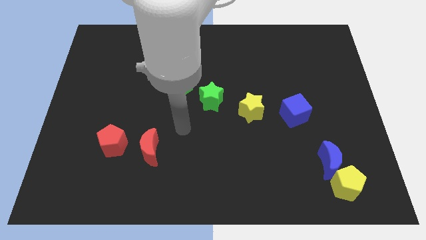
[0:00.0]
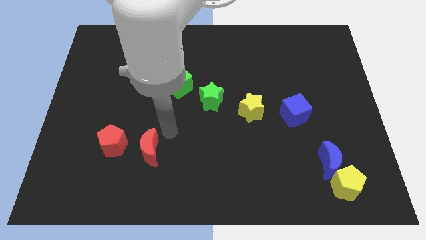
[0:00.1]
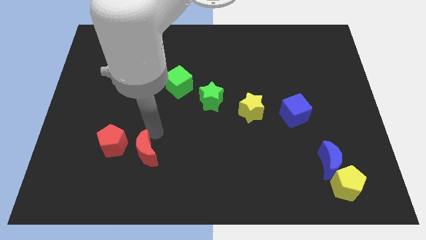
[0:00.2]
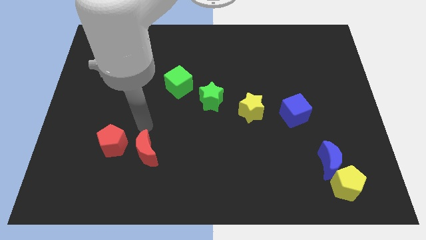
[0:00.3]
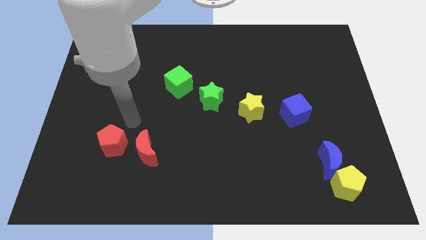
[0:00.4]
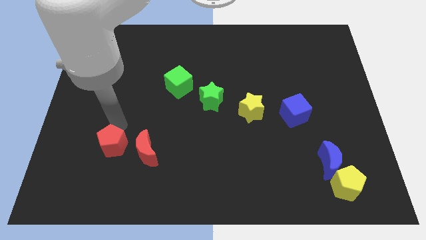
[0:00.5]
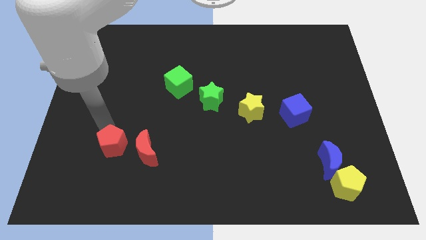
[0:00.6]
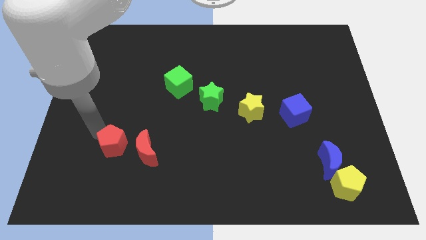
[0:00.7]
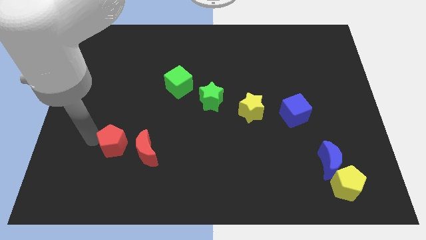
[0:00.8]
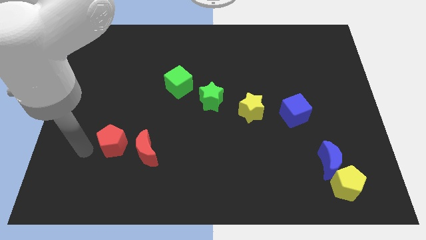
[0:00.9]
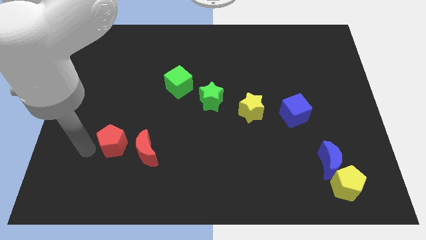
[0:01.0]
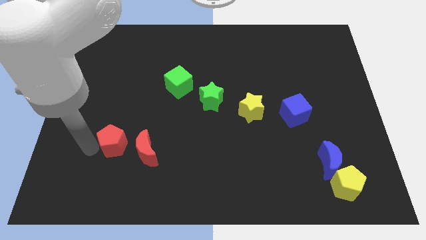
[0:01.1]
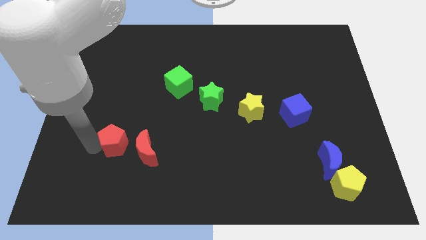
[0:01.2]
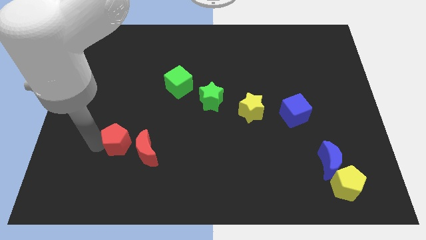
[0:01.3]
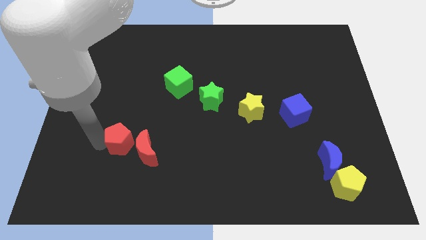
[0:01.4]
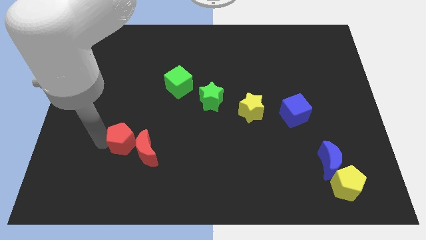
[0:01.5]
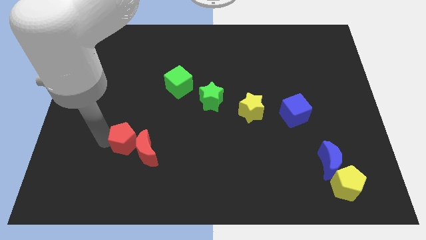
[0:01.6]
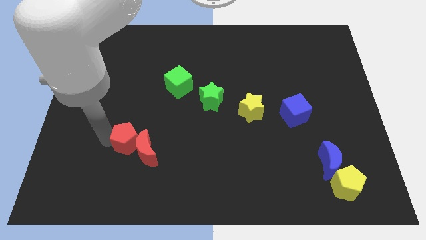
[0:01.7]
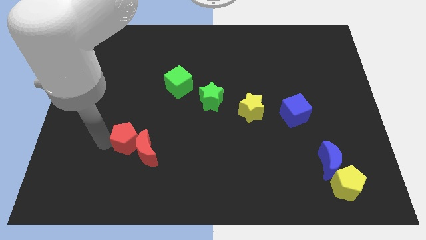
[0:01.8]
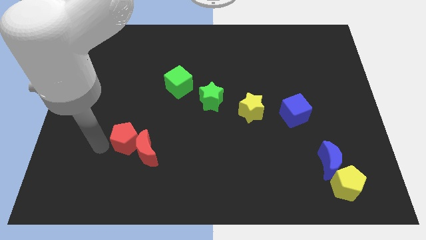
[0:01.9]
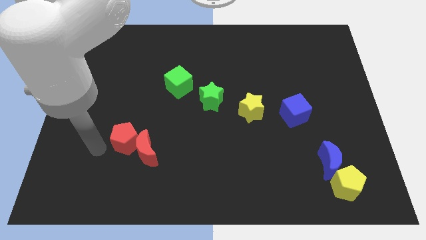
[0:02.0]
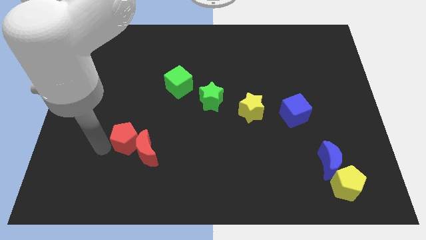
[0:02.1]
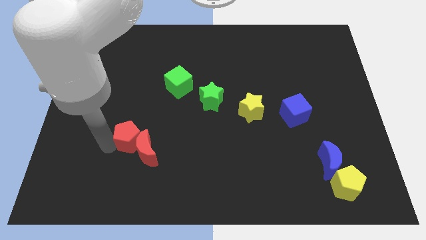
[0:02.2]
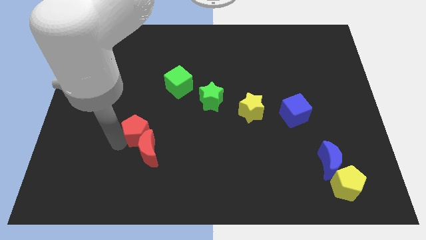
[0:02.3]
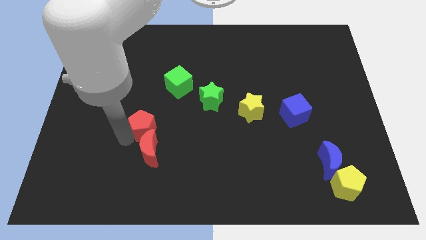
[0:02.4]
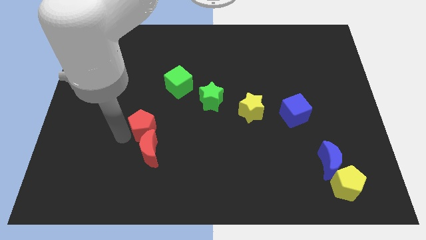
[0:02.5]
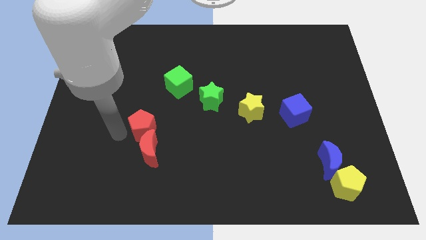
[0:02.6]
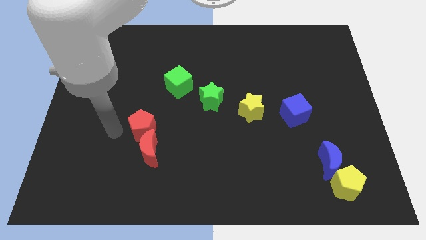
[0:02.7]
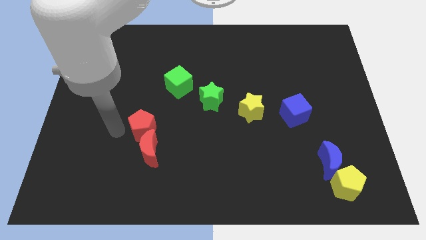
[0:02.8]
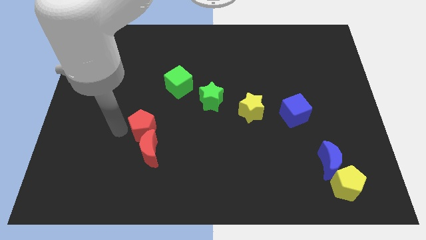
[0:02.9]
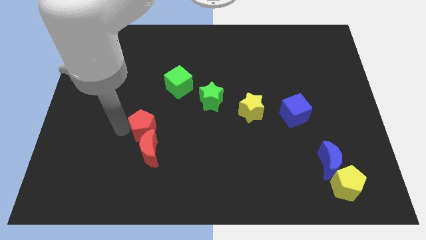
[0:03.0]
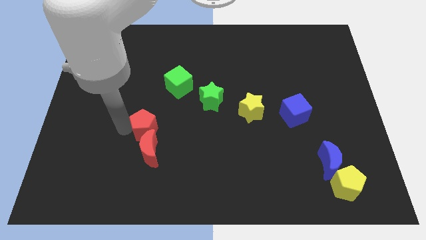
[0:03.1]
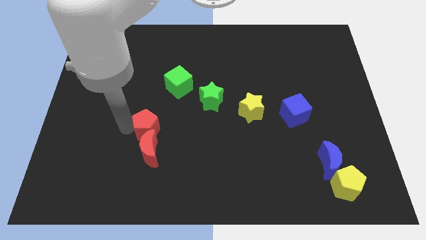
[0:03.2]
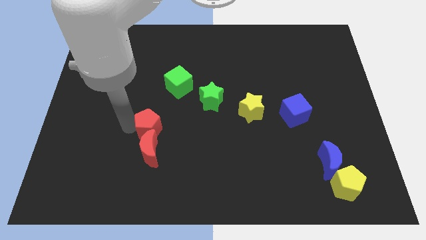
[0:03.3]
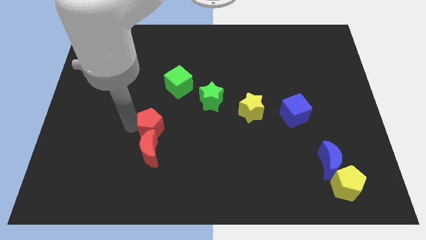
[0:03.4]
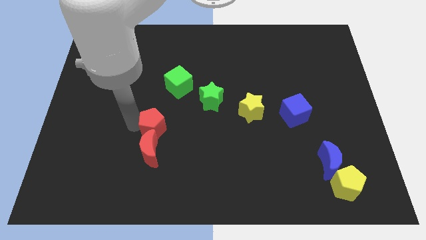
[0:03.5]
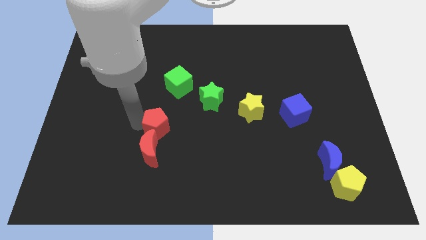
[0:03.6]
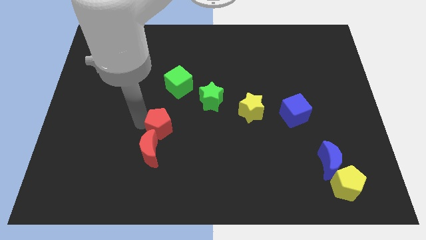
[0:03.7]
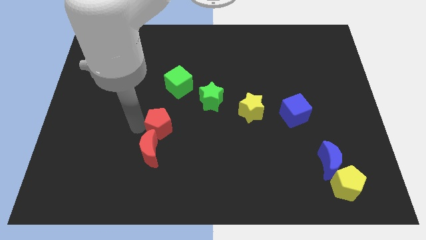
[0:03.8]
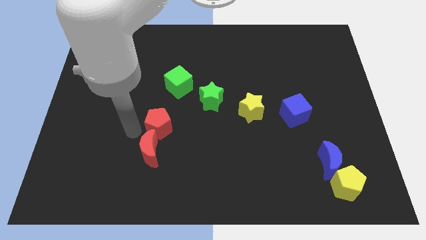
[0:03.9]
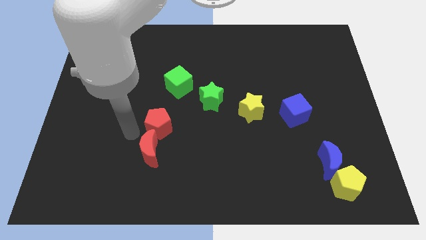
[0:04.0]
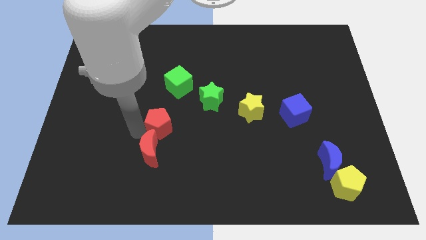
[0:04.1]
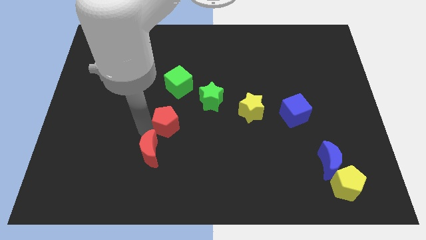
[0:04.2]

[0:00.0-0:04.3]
push the red pentagon to the bottom left side of the green star

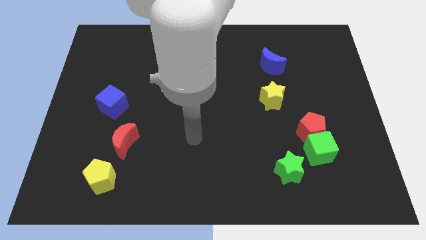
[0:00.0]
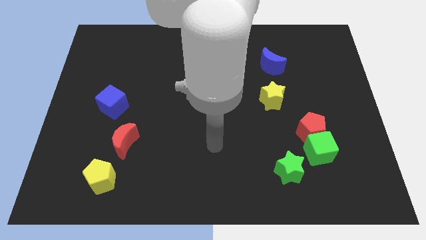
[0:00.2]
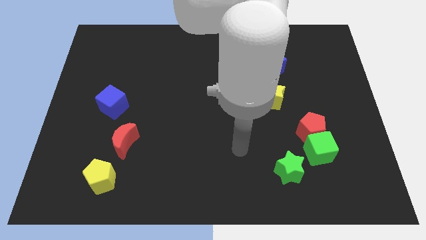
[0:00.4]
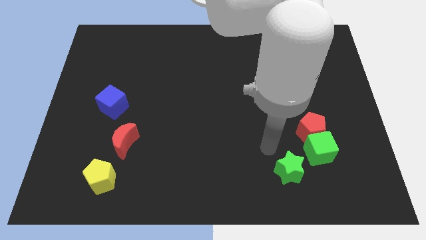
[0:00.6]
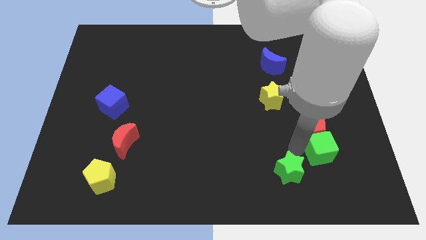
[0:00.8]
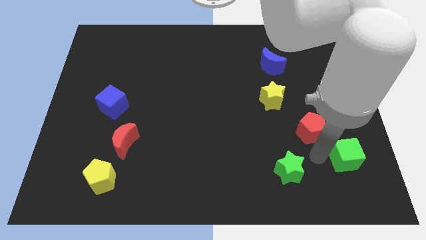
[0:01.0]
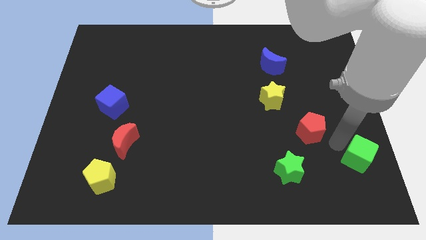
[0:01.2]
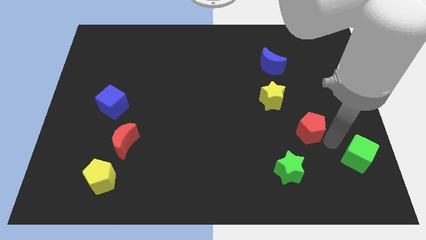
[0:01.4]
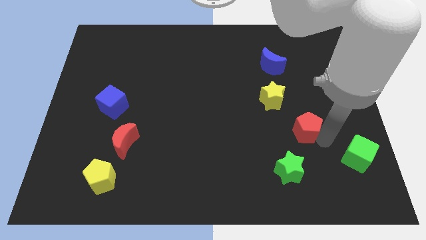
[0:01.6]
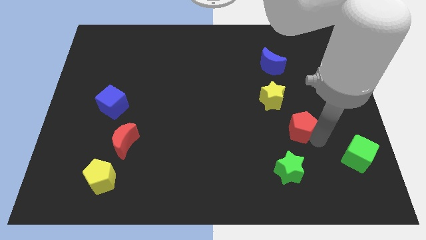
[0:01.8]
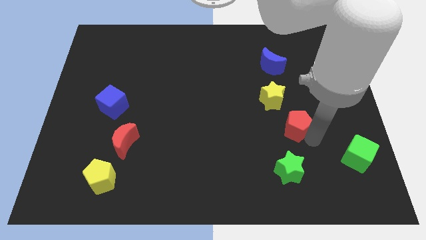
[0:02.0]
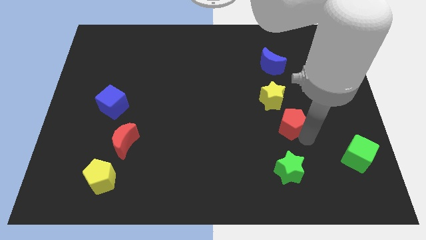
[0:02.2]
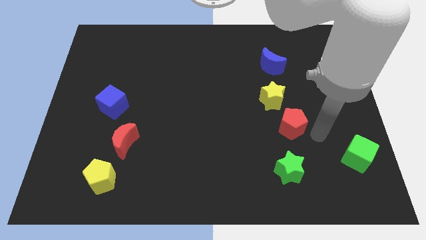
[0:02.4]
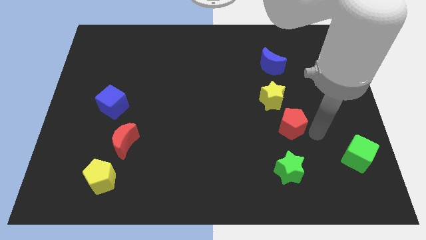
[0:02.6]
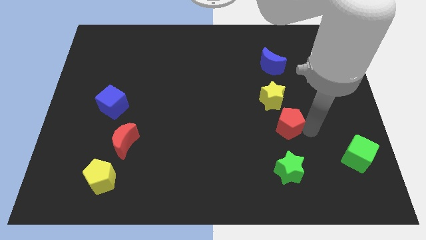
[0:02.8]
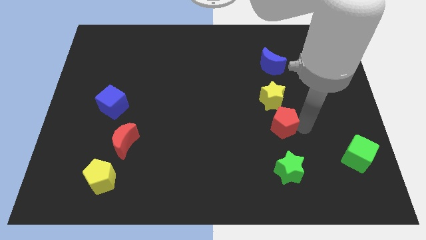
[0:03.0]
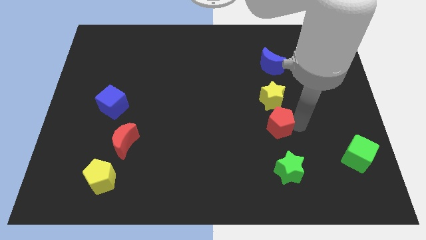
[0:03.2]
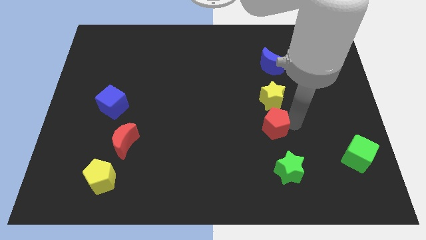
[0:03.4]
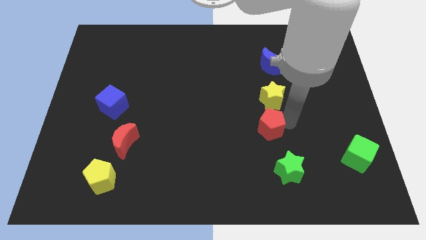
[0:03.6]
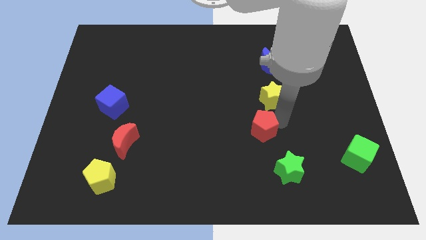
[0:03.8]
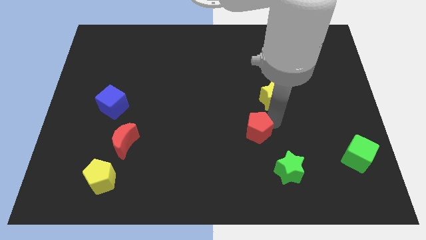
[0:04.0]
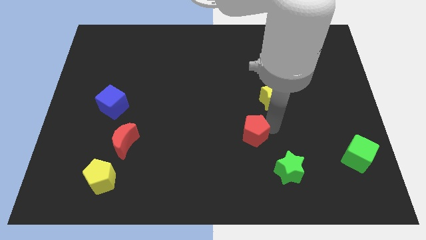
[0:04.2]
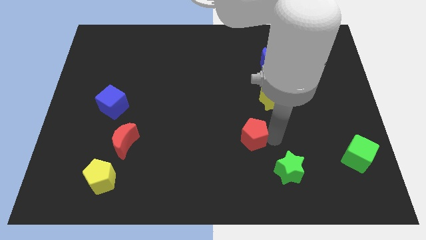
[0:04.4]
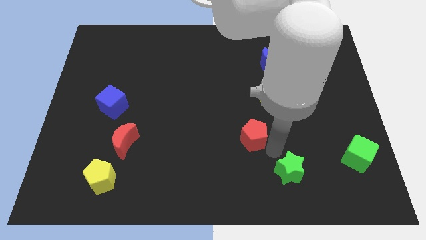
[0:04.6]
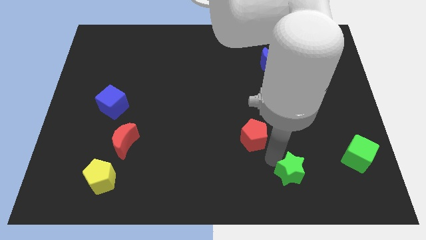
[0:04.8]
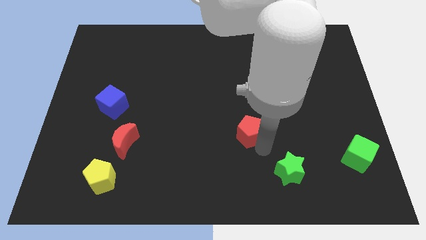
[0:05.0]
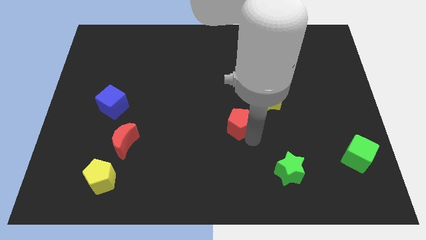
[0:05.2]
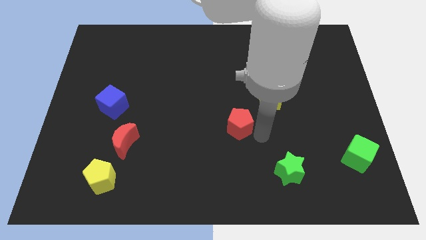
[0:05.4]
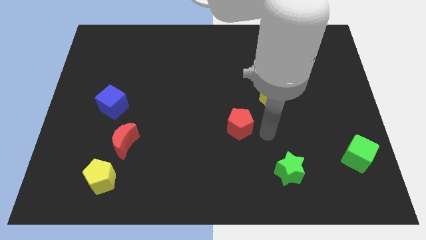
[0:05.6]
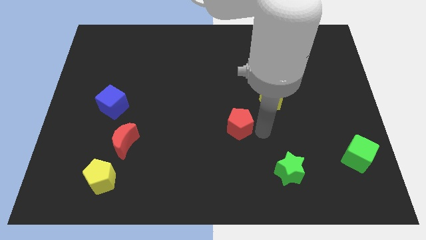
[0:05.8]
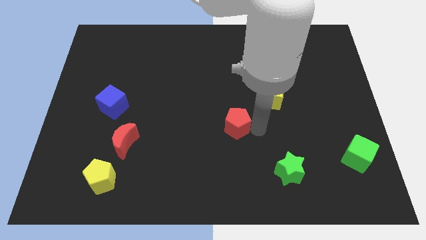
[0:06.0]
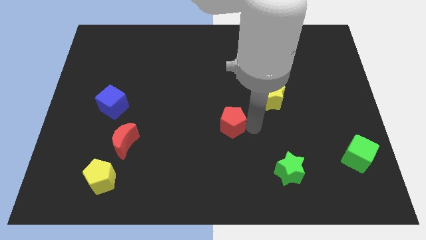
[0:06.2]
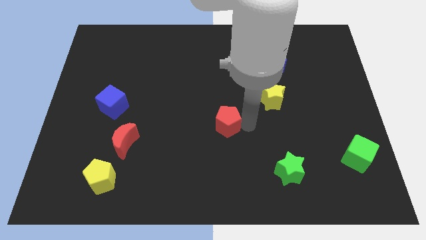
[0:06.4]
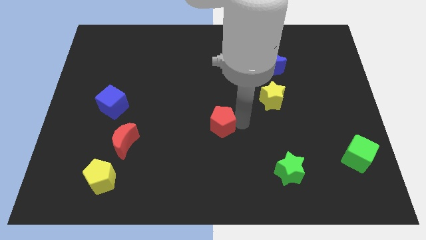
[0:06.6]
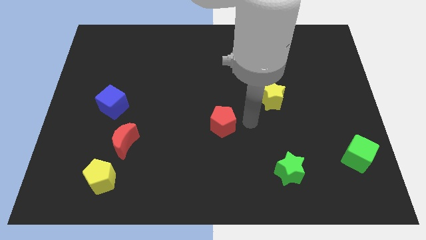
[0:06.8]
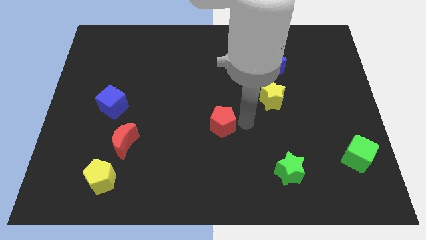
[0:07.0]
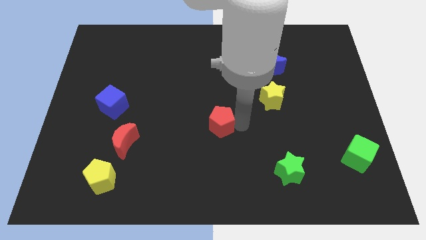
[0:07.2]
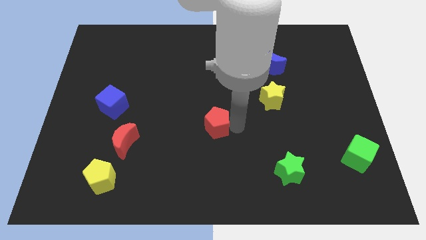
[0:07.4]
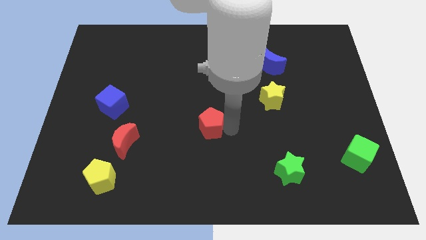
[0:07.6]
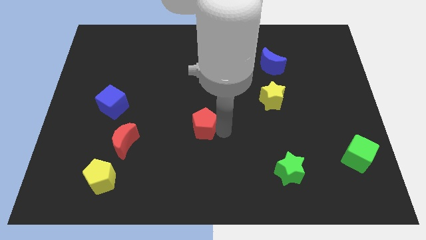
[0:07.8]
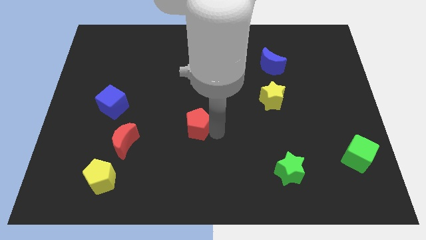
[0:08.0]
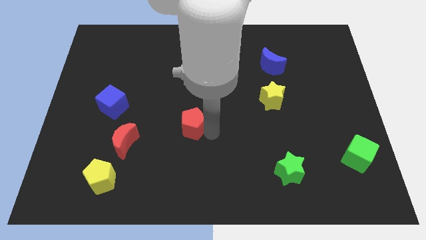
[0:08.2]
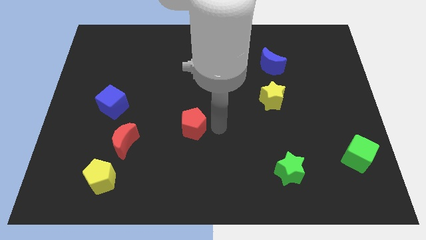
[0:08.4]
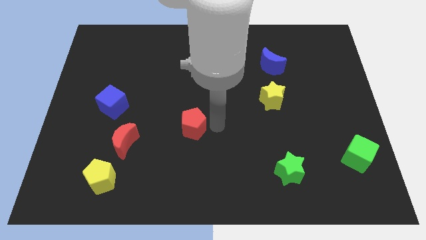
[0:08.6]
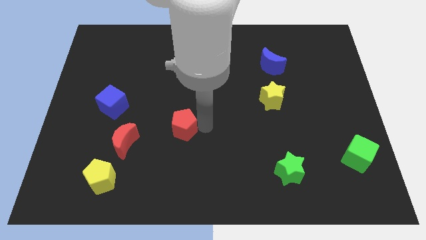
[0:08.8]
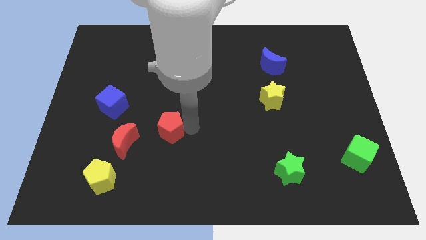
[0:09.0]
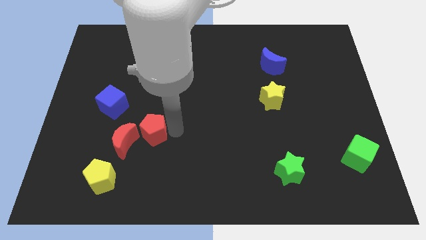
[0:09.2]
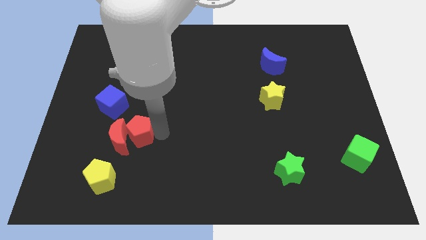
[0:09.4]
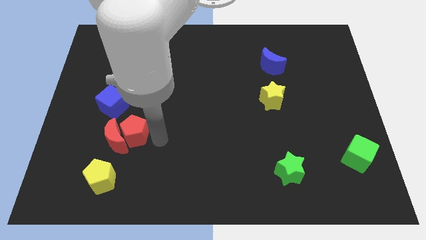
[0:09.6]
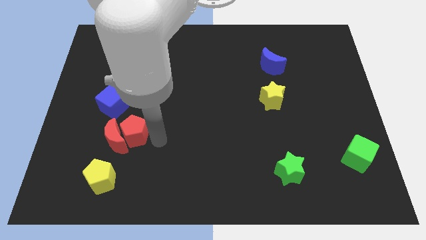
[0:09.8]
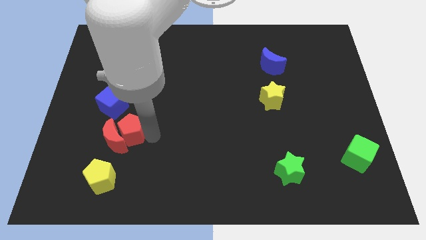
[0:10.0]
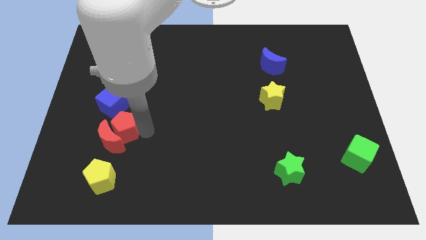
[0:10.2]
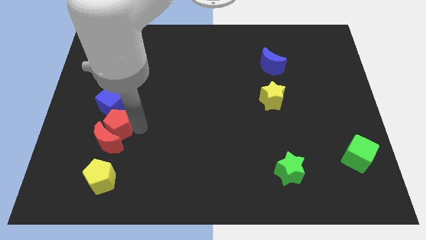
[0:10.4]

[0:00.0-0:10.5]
push the red pentagon to the top left of the red moon
